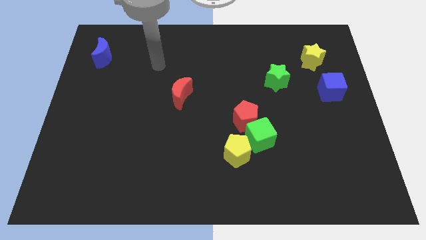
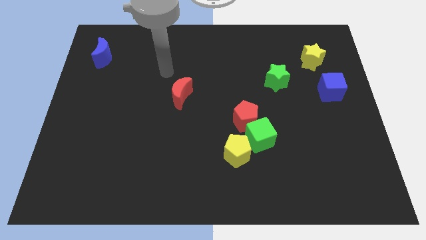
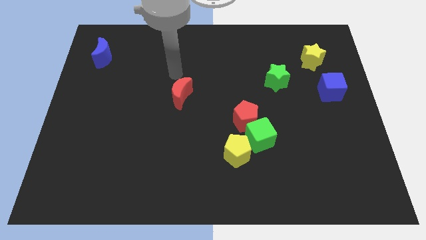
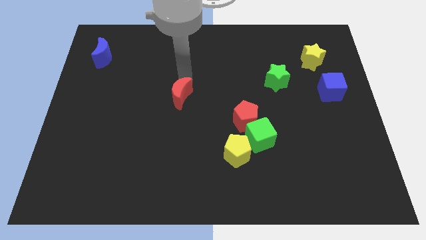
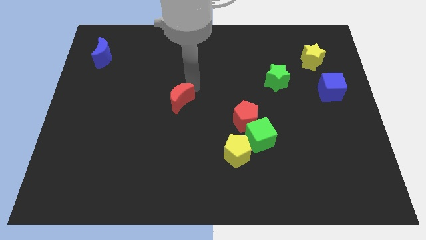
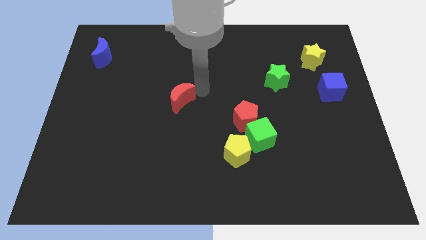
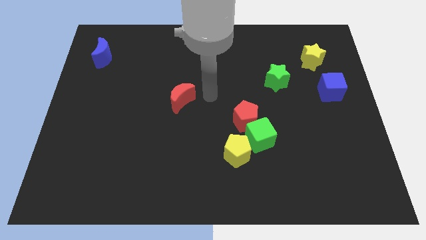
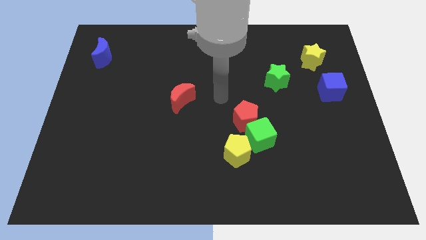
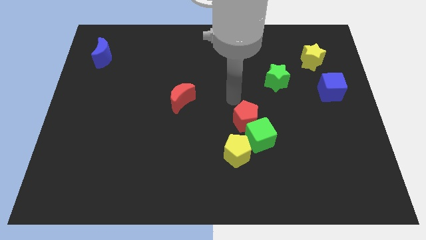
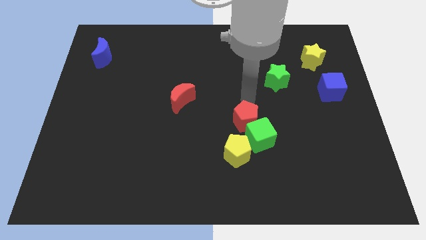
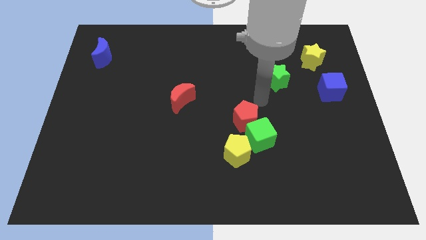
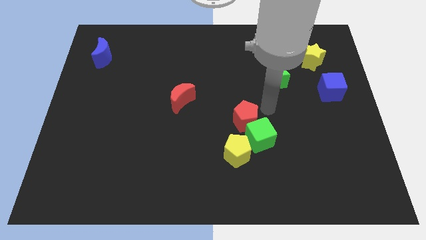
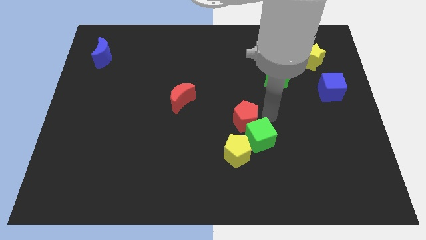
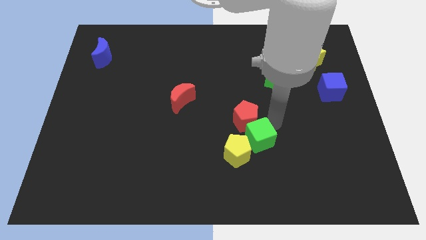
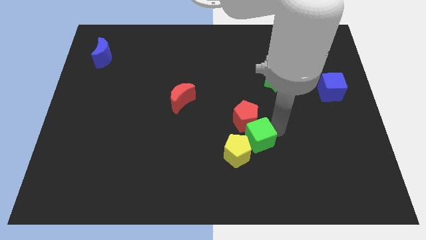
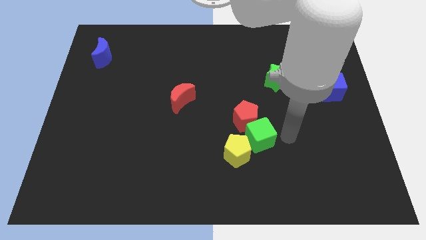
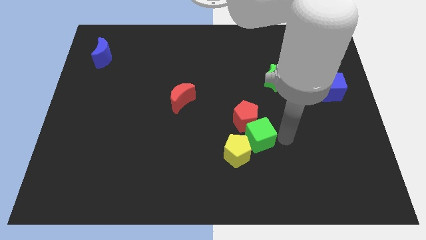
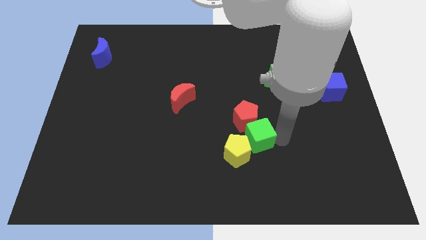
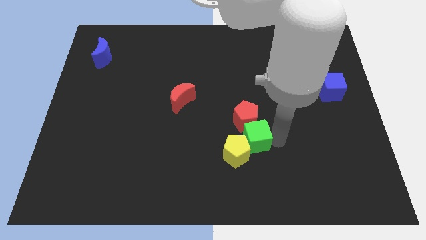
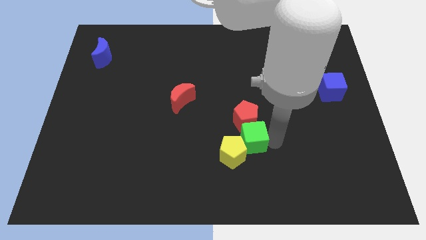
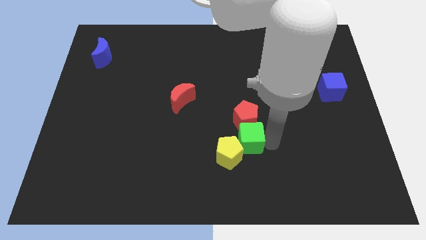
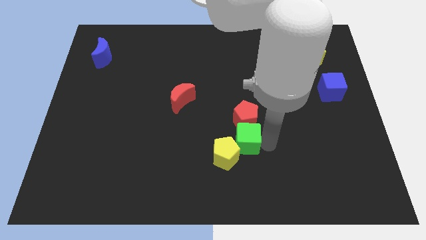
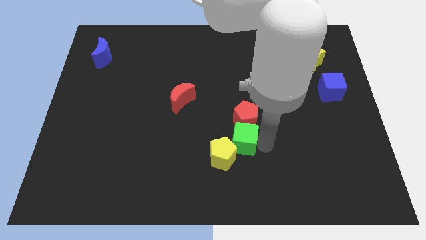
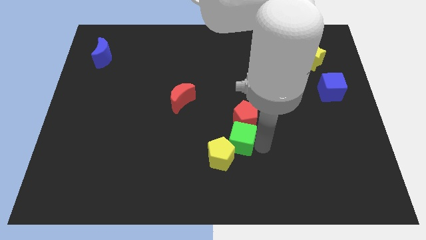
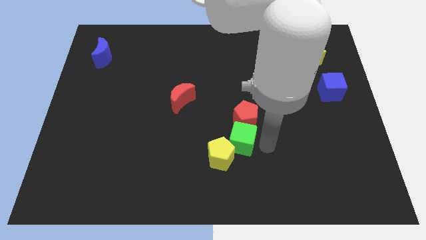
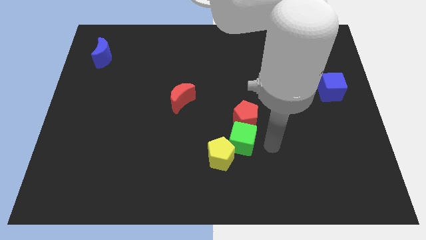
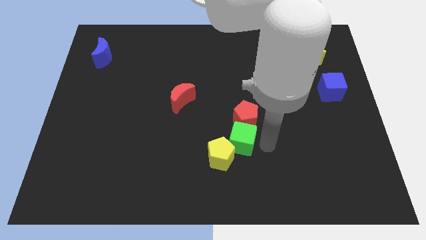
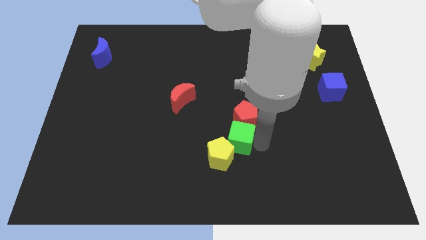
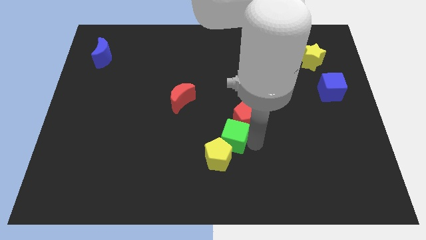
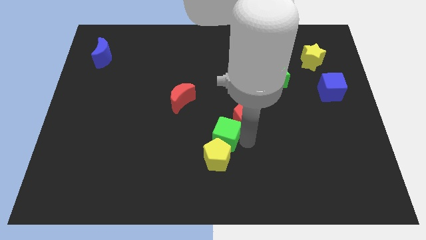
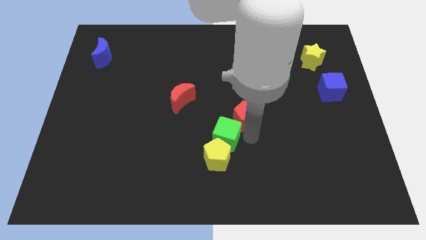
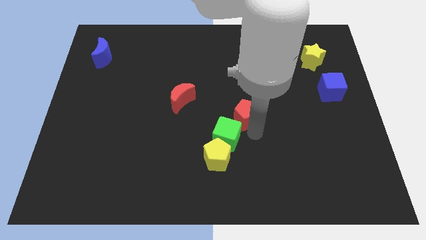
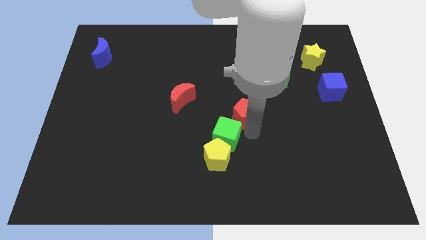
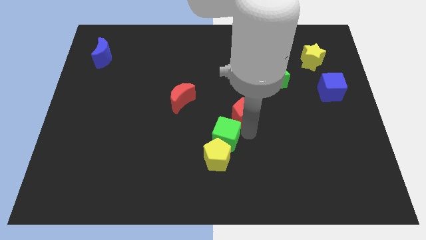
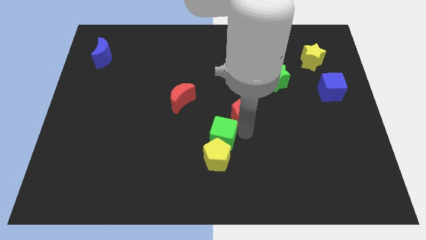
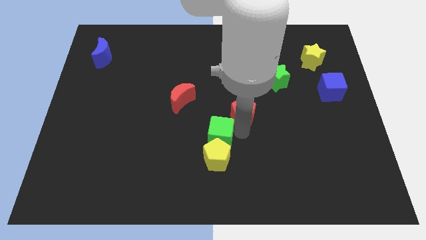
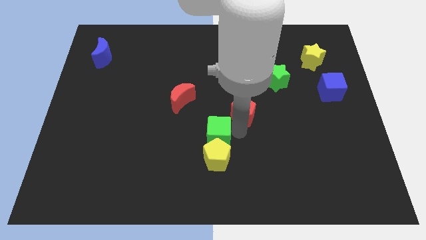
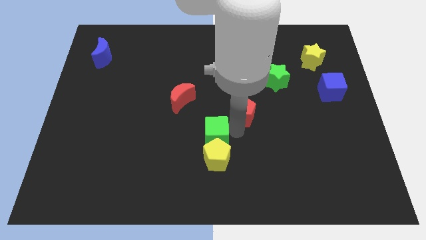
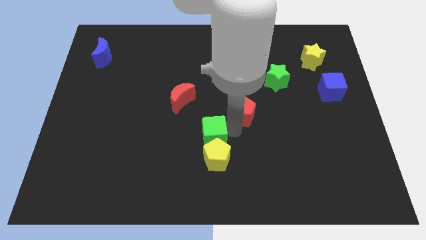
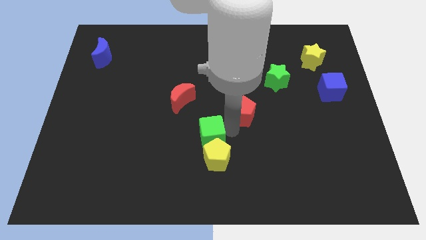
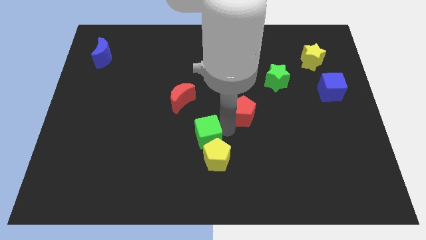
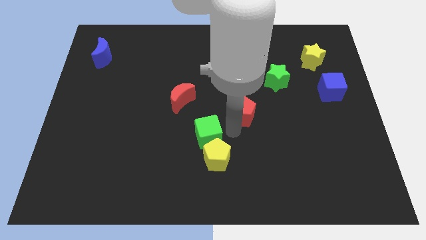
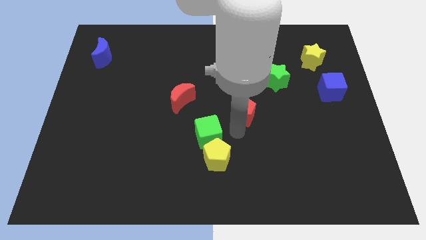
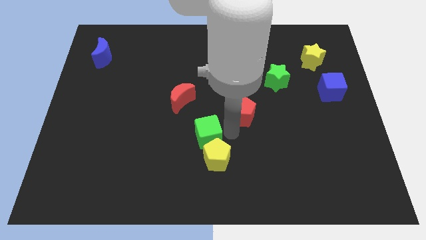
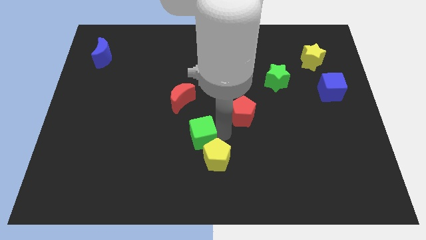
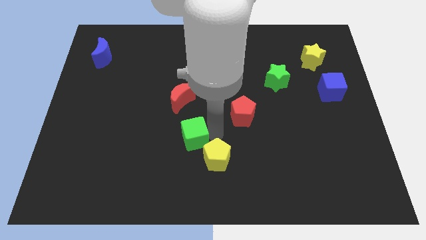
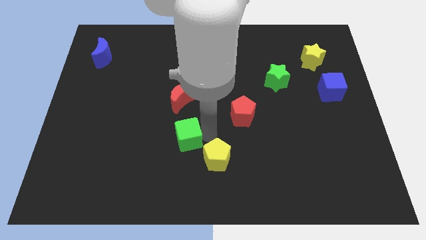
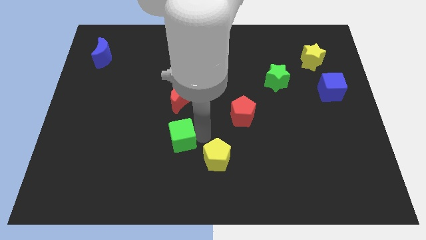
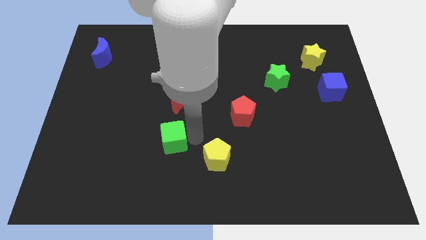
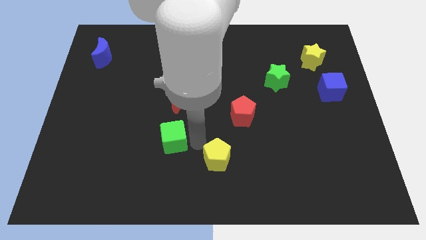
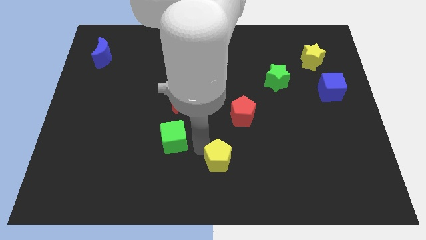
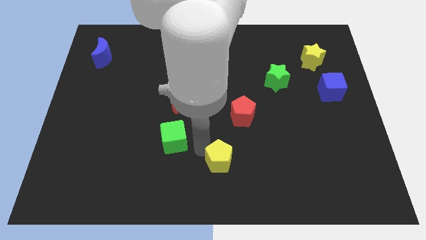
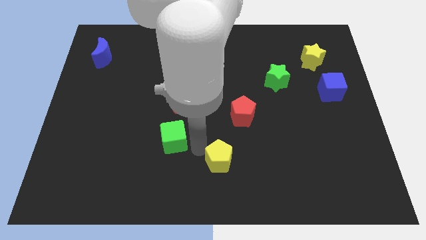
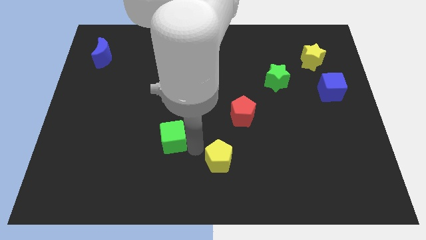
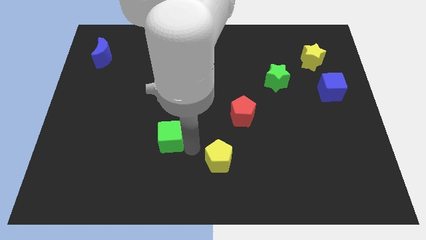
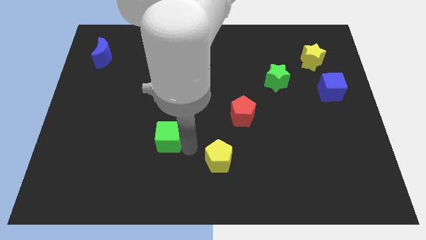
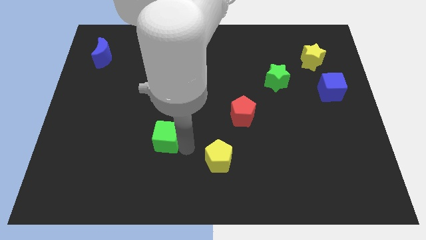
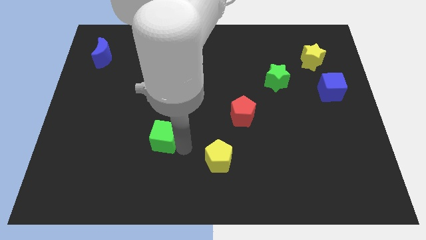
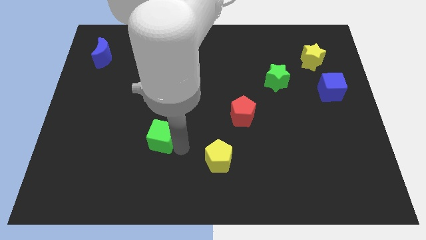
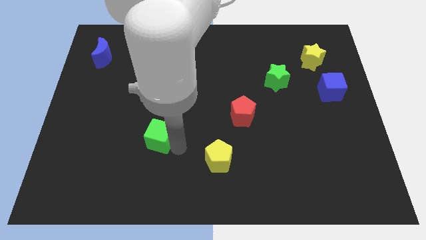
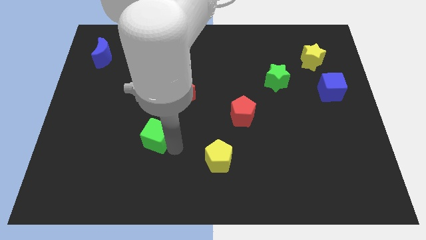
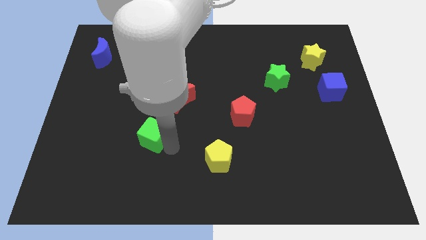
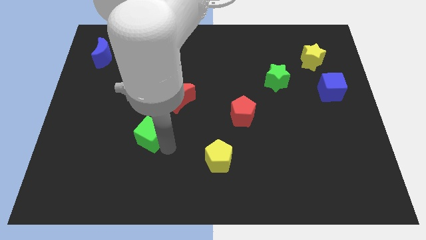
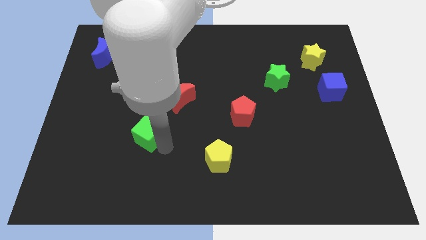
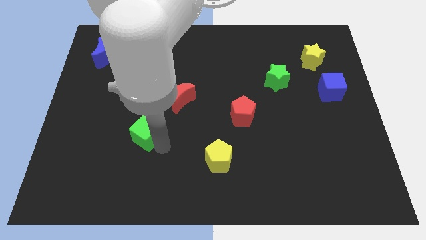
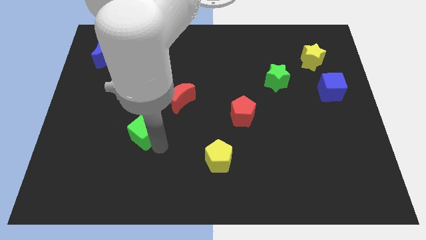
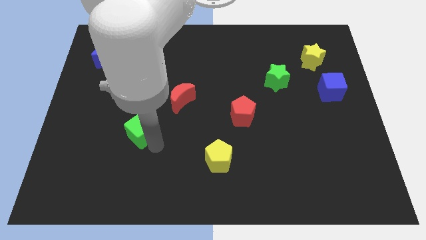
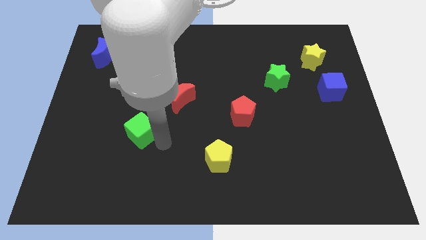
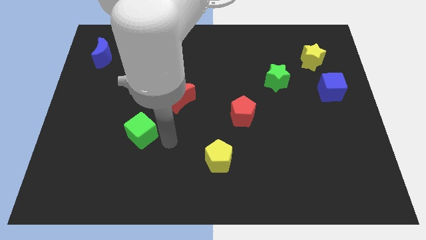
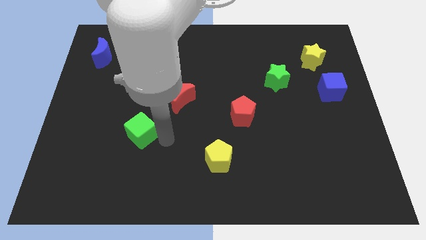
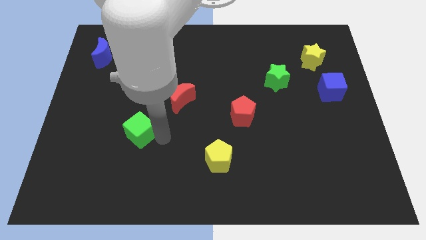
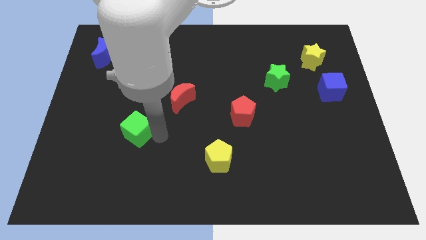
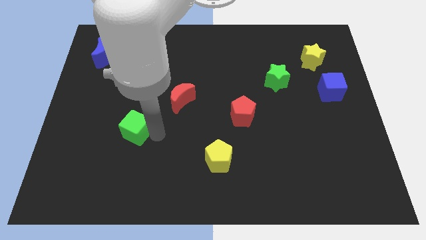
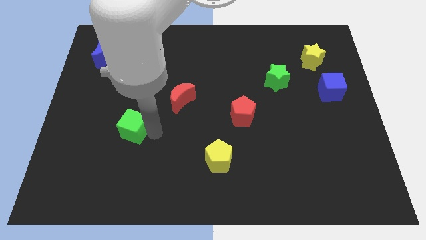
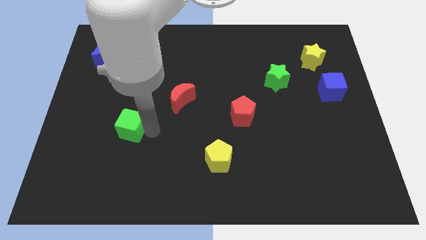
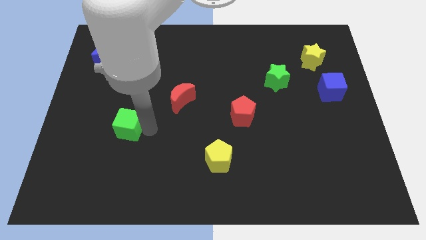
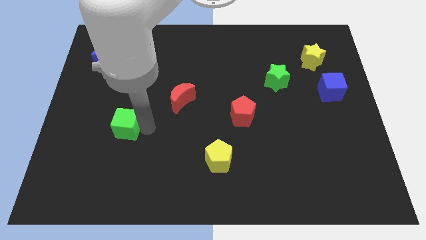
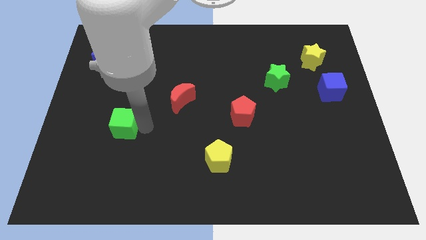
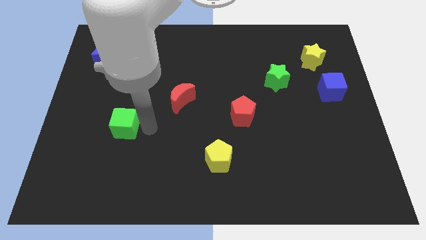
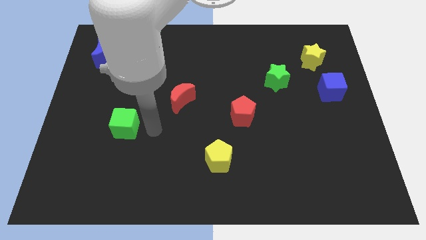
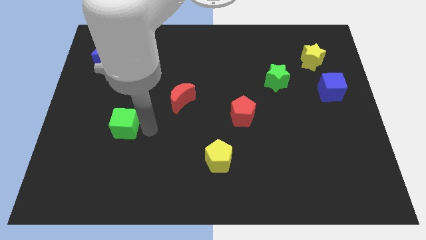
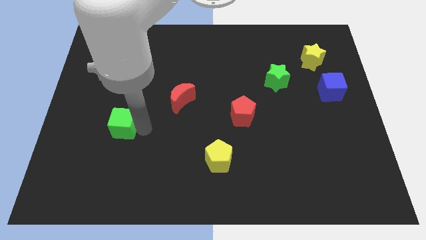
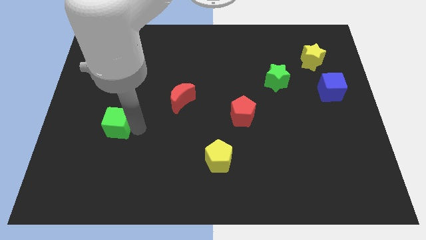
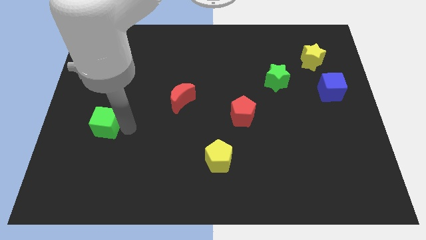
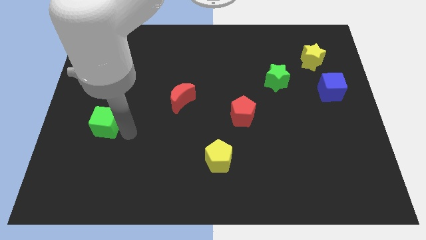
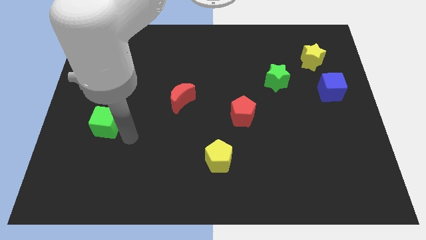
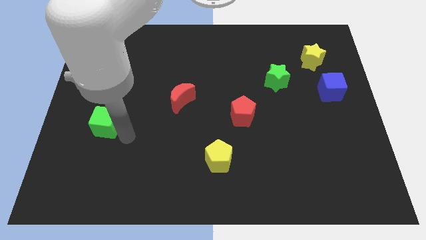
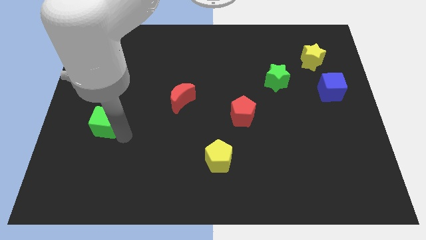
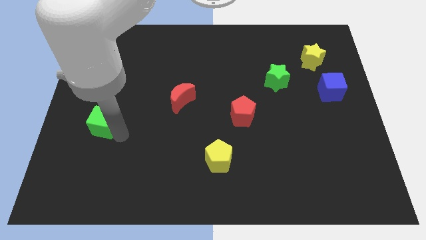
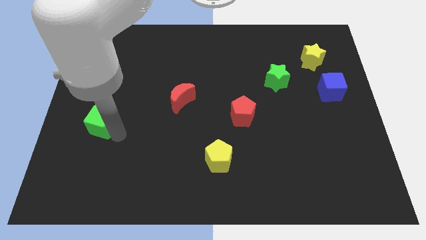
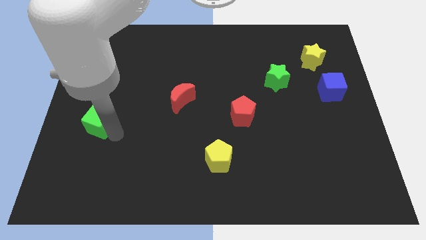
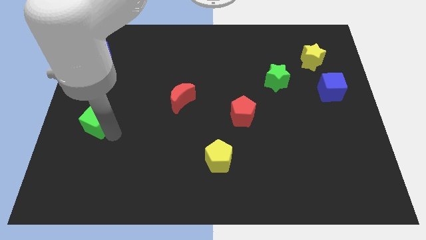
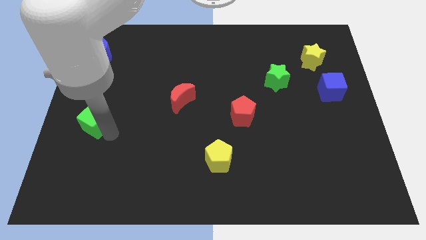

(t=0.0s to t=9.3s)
slide the green cube to the left side
